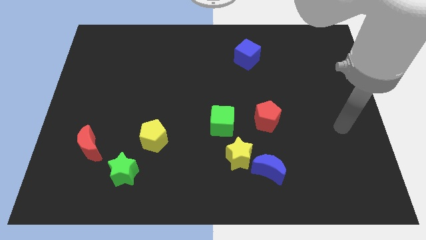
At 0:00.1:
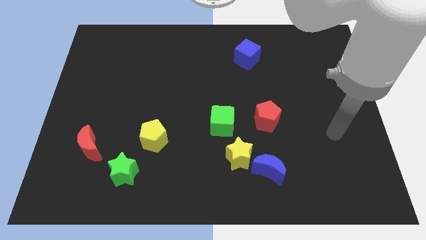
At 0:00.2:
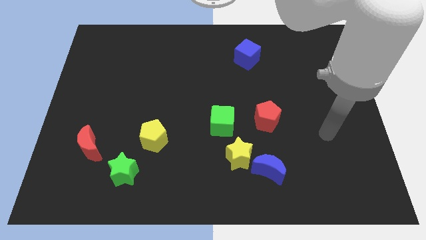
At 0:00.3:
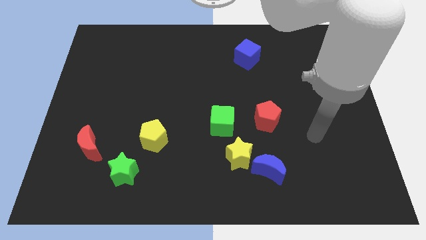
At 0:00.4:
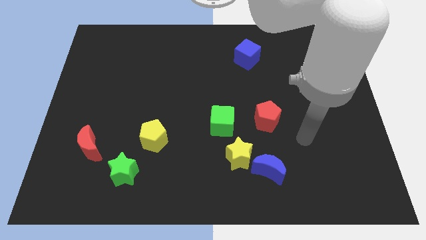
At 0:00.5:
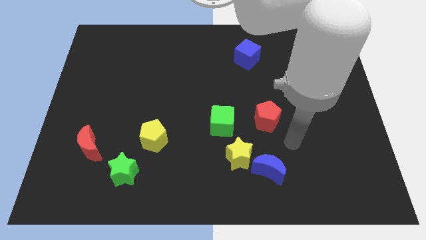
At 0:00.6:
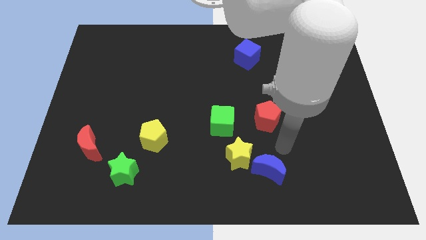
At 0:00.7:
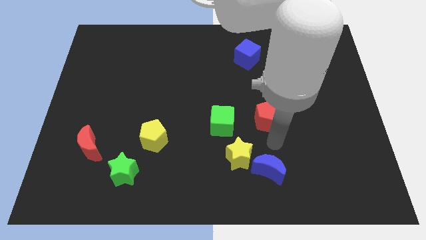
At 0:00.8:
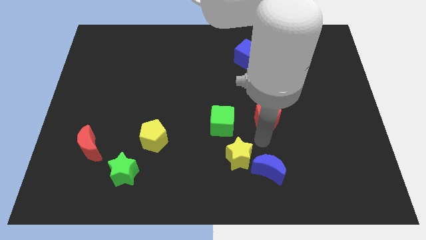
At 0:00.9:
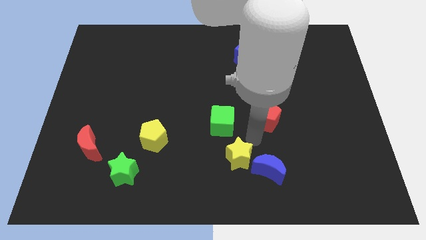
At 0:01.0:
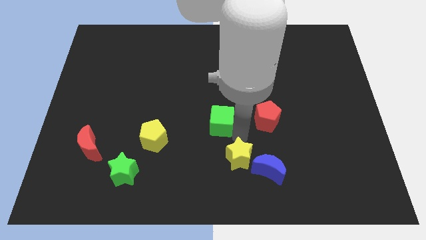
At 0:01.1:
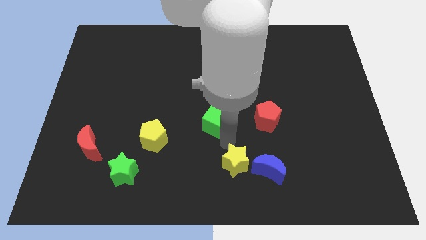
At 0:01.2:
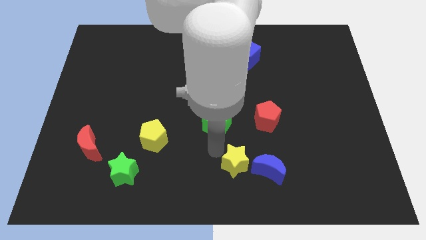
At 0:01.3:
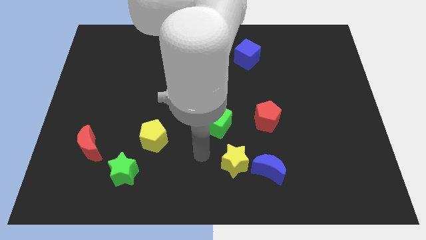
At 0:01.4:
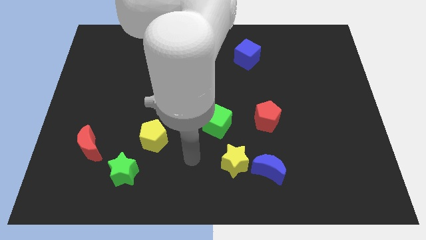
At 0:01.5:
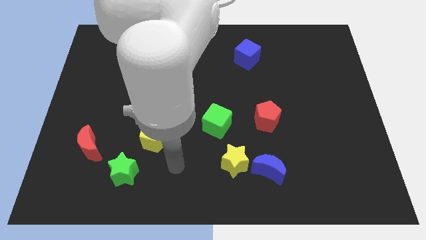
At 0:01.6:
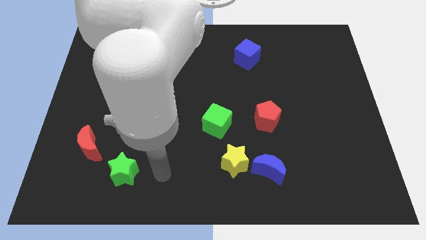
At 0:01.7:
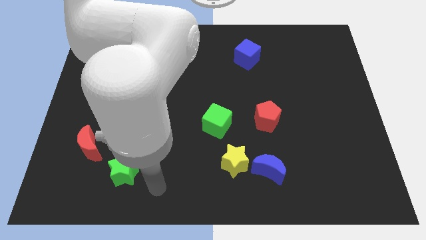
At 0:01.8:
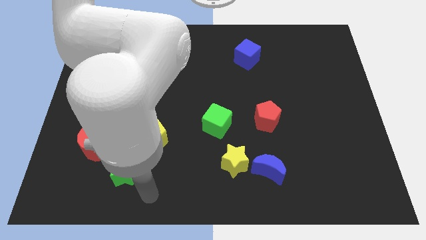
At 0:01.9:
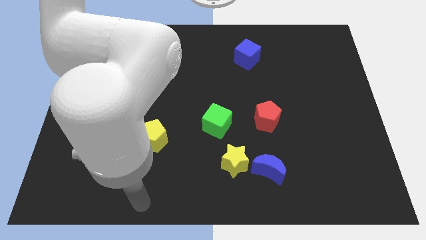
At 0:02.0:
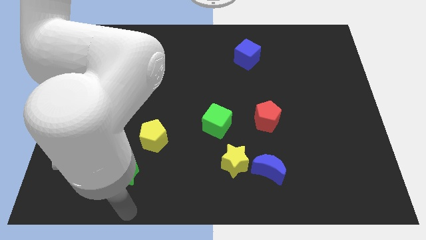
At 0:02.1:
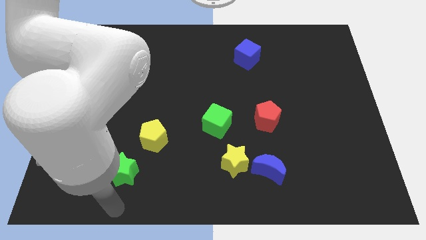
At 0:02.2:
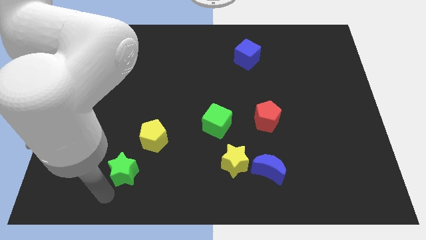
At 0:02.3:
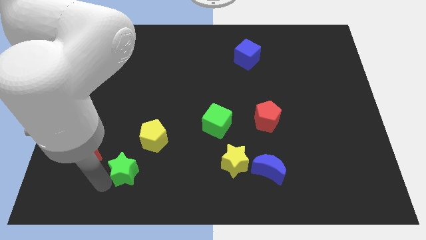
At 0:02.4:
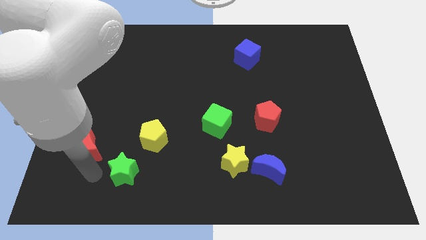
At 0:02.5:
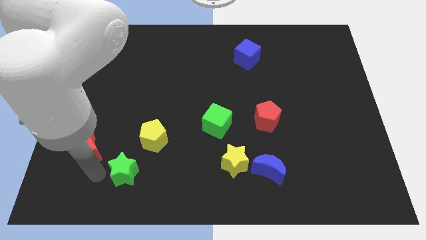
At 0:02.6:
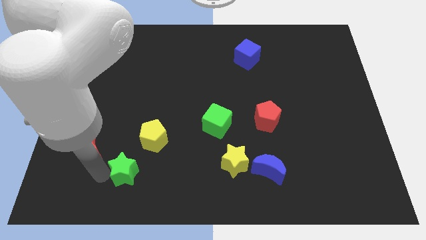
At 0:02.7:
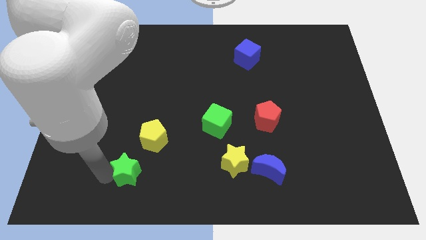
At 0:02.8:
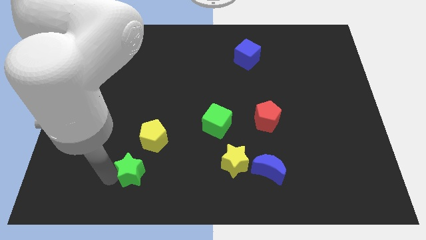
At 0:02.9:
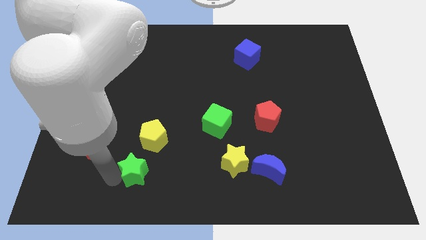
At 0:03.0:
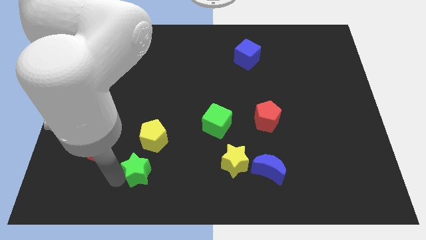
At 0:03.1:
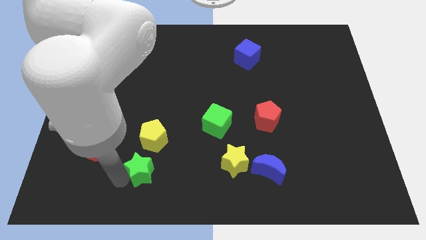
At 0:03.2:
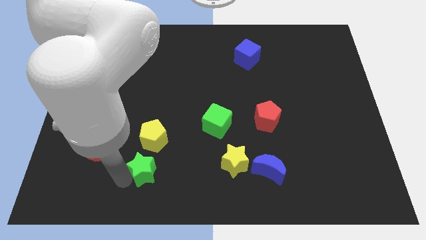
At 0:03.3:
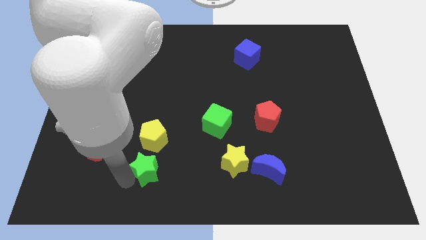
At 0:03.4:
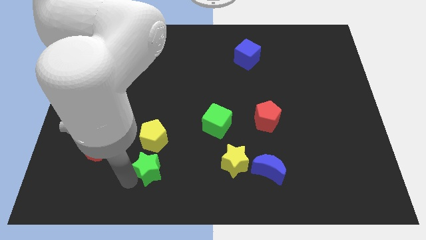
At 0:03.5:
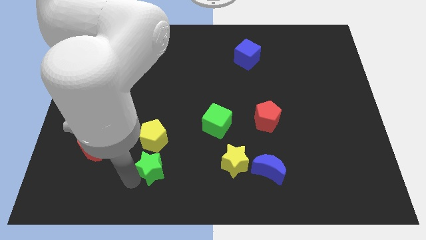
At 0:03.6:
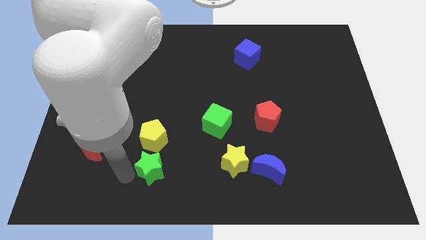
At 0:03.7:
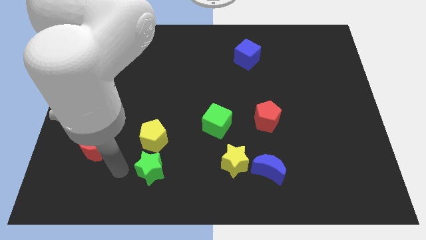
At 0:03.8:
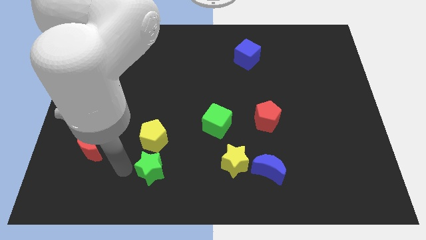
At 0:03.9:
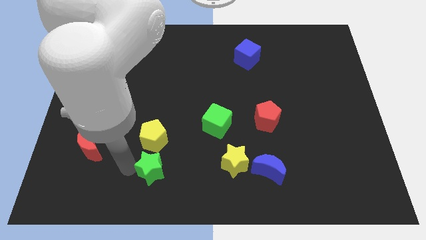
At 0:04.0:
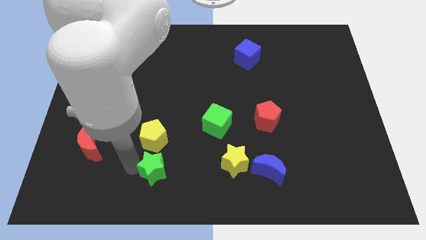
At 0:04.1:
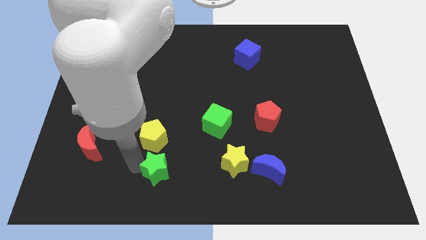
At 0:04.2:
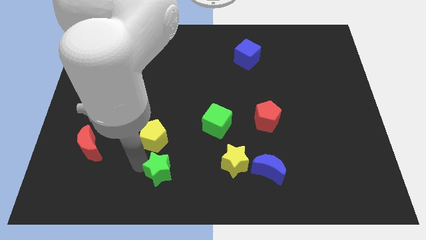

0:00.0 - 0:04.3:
slightly move the green star to the right

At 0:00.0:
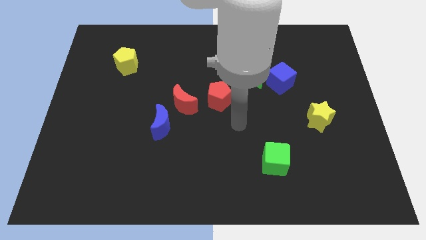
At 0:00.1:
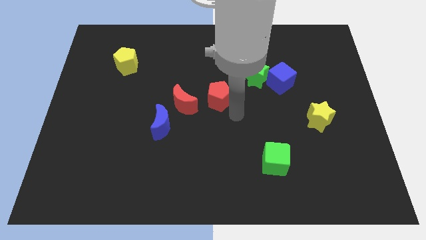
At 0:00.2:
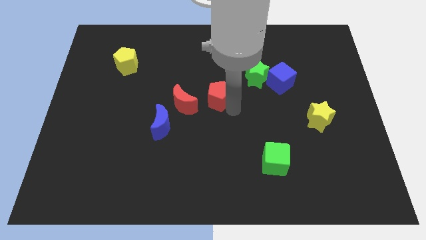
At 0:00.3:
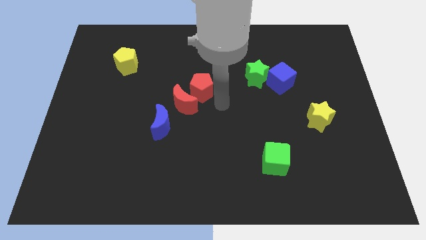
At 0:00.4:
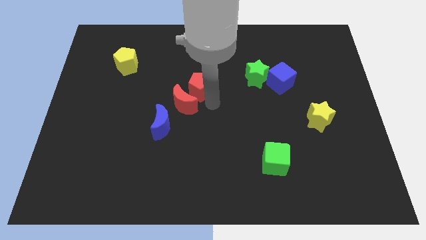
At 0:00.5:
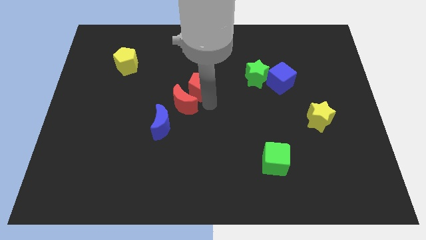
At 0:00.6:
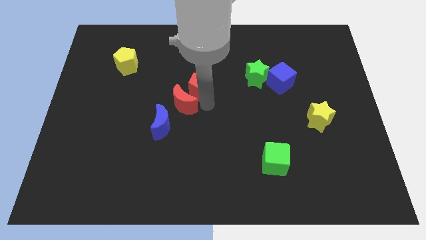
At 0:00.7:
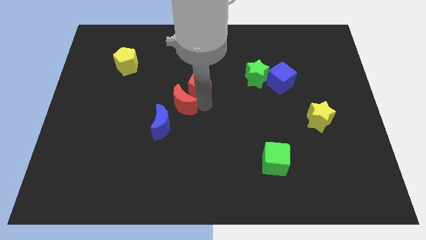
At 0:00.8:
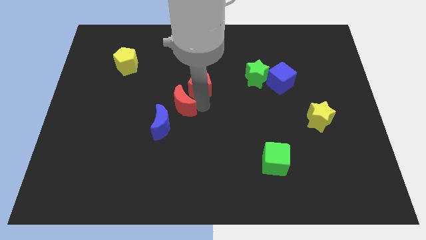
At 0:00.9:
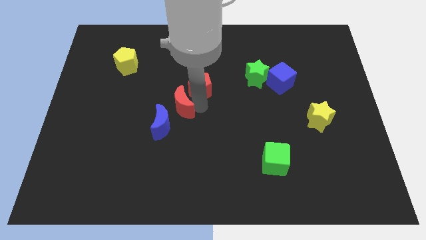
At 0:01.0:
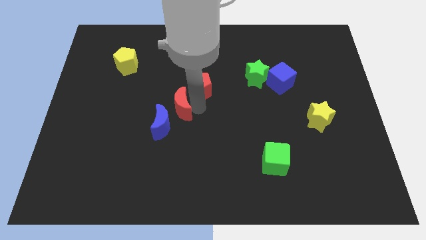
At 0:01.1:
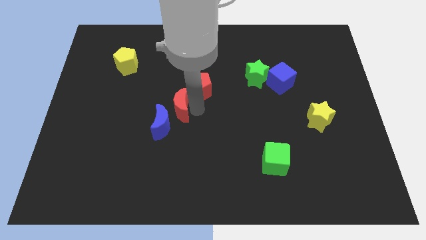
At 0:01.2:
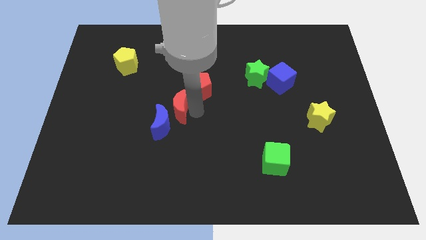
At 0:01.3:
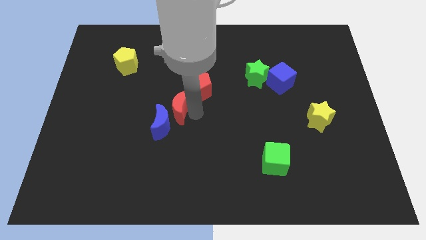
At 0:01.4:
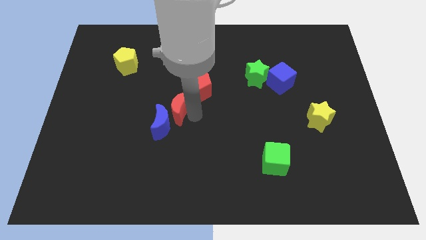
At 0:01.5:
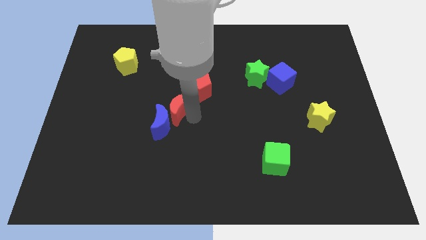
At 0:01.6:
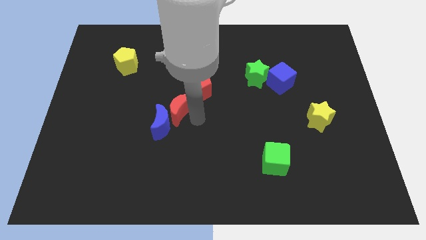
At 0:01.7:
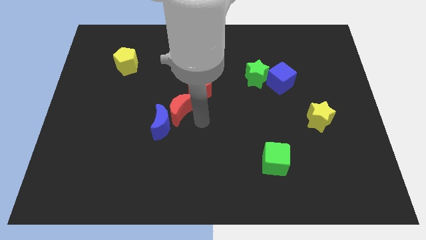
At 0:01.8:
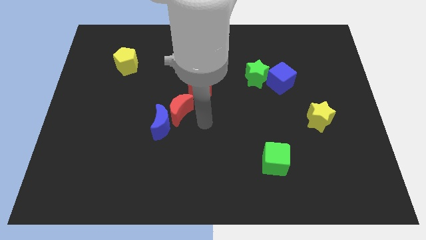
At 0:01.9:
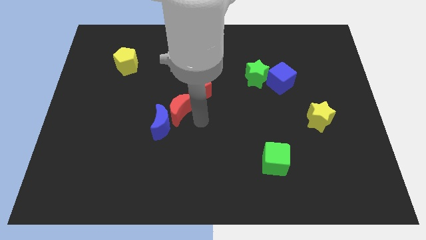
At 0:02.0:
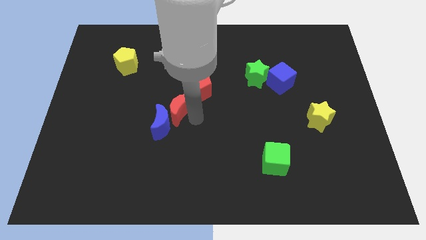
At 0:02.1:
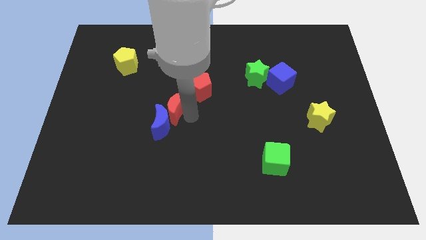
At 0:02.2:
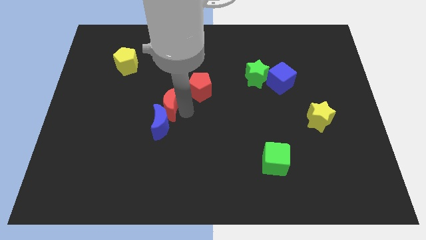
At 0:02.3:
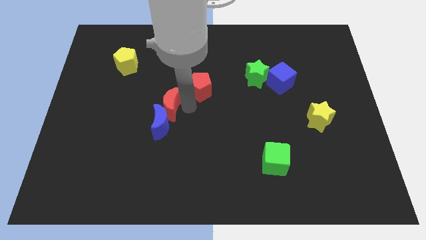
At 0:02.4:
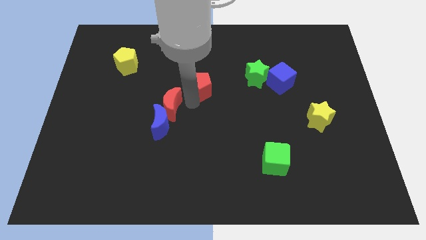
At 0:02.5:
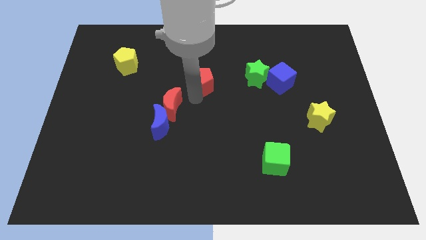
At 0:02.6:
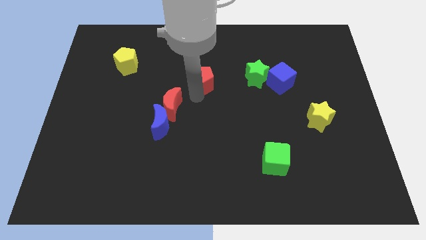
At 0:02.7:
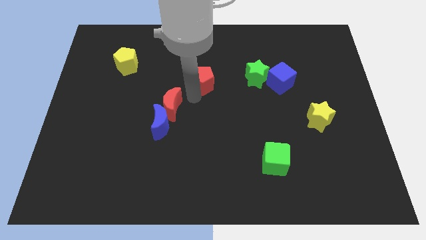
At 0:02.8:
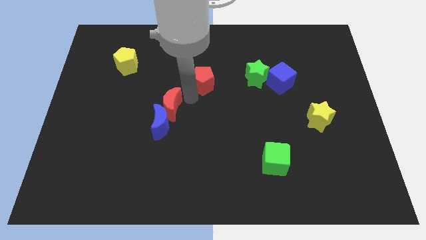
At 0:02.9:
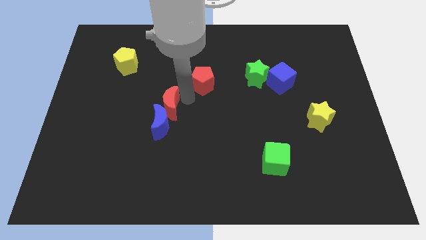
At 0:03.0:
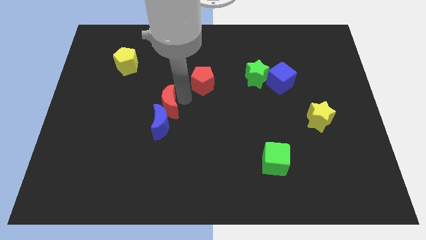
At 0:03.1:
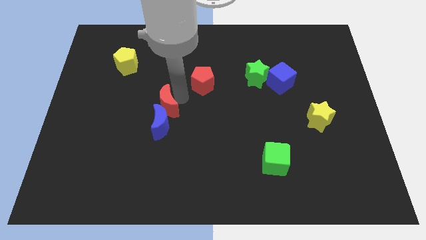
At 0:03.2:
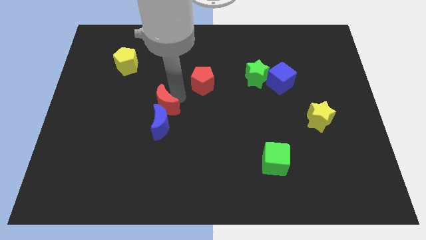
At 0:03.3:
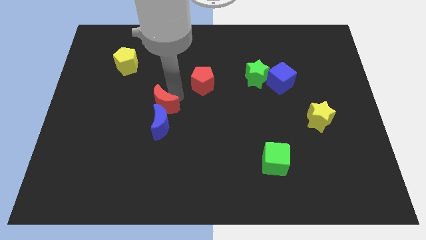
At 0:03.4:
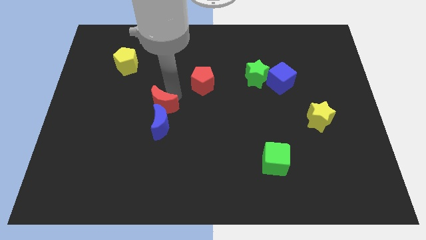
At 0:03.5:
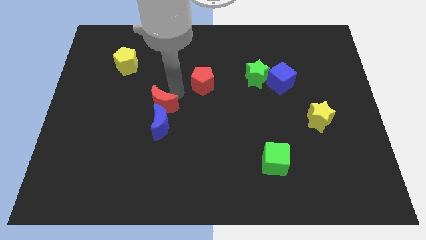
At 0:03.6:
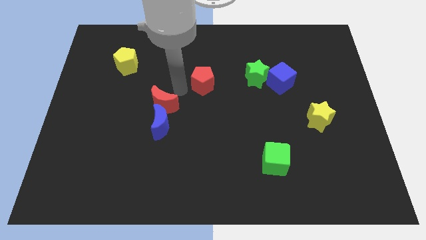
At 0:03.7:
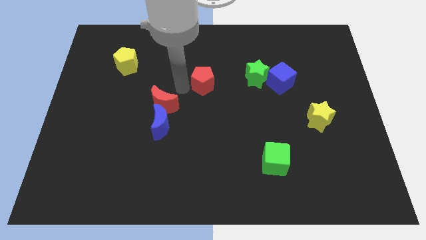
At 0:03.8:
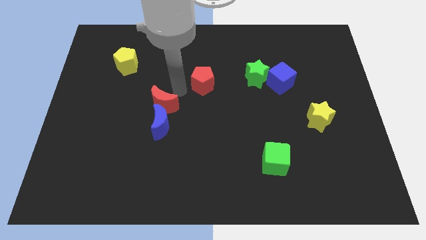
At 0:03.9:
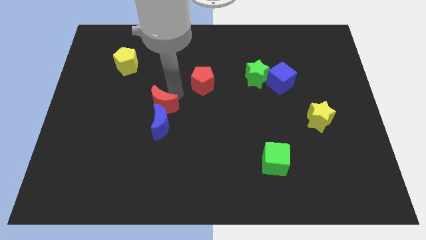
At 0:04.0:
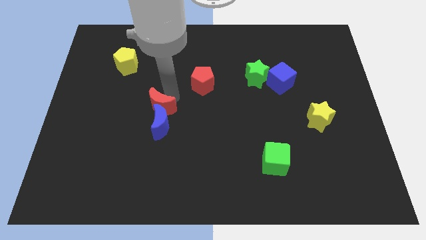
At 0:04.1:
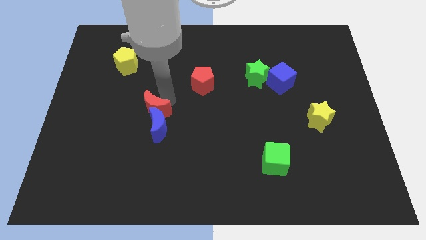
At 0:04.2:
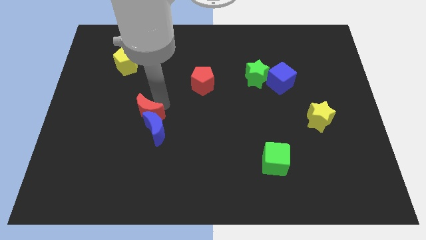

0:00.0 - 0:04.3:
slightly move the red moon down and left
